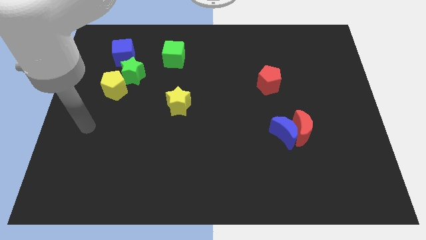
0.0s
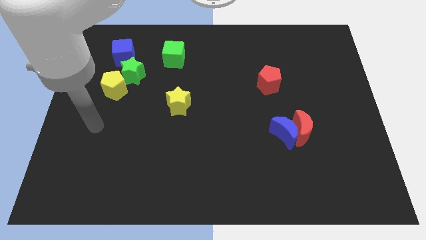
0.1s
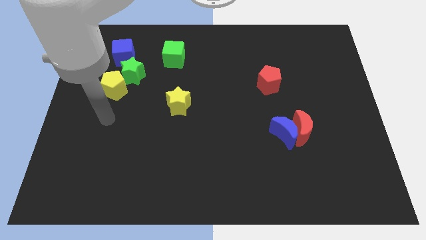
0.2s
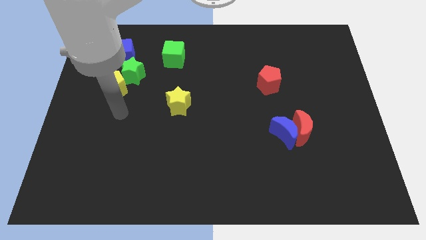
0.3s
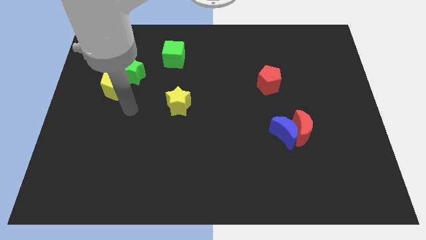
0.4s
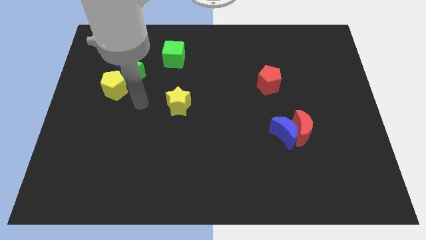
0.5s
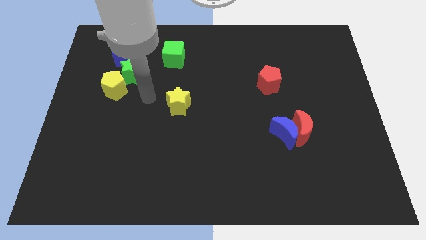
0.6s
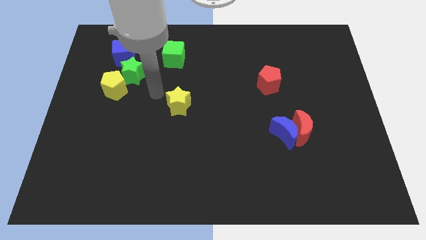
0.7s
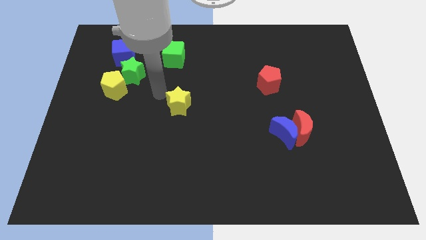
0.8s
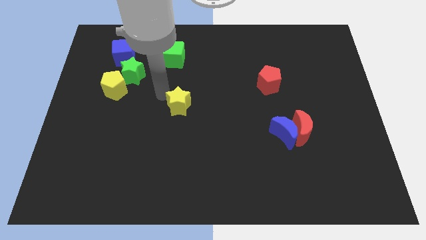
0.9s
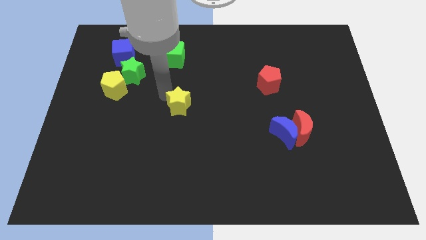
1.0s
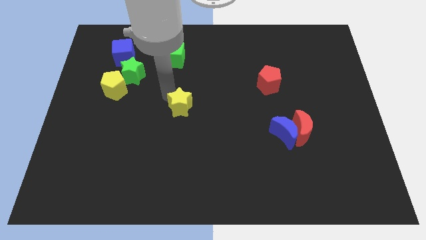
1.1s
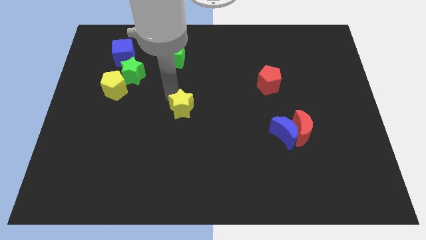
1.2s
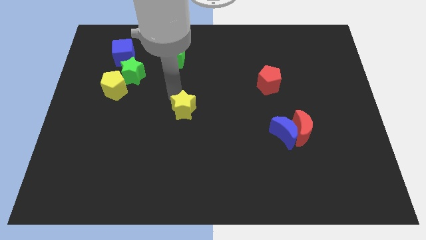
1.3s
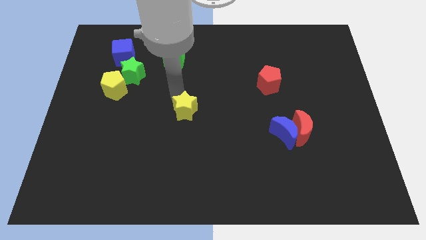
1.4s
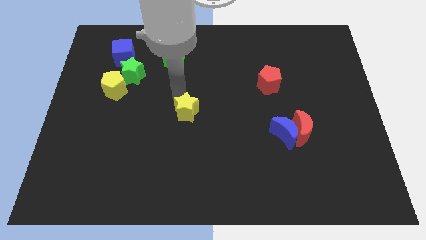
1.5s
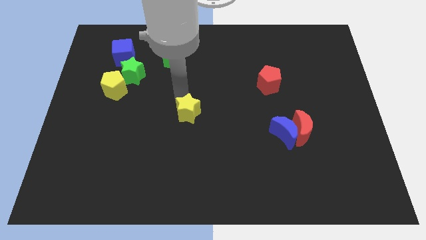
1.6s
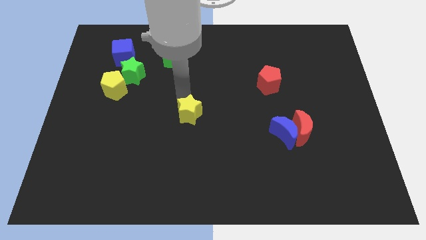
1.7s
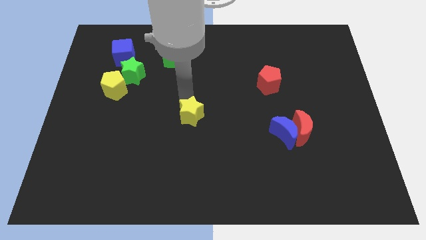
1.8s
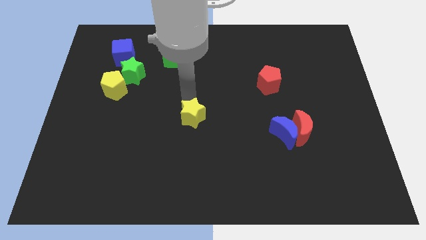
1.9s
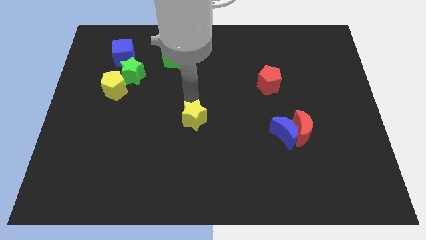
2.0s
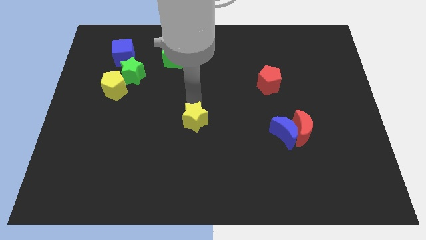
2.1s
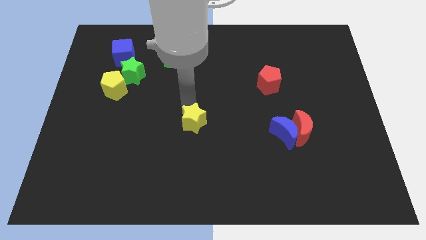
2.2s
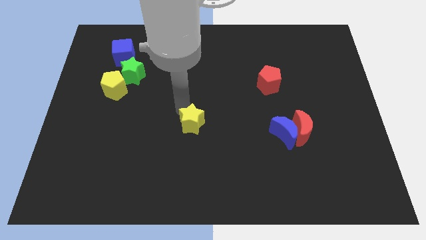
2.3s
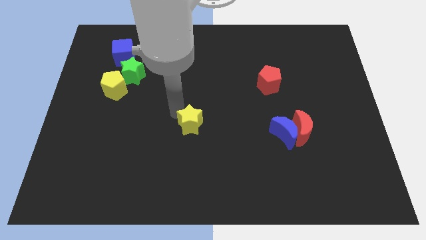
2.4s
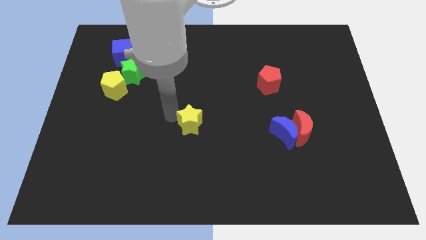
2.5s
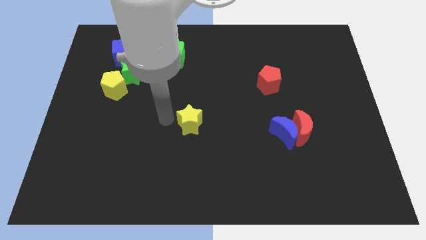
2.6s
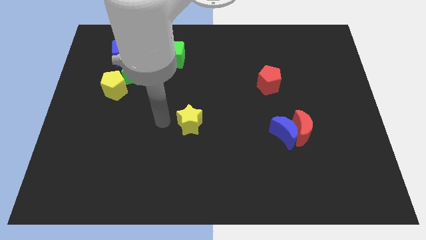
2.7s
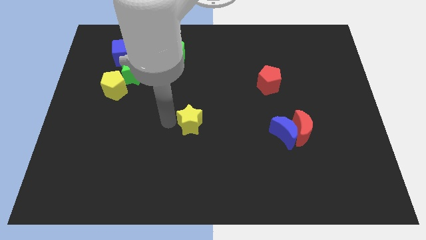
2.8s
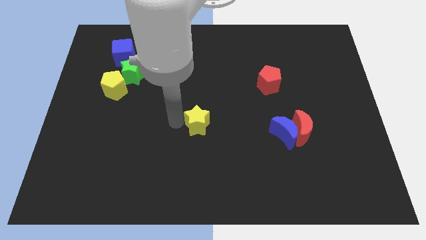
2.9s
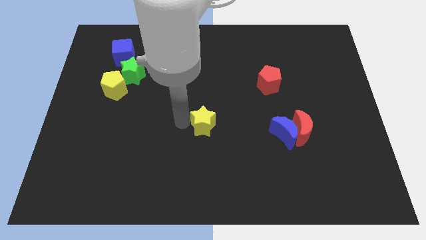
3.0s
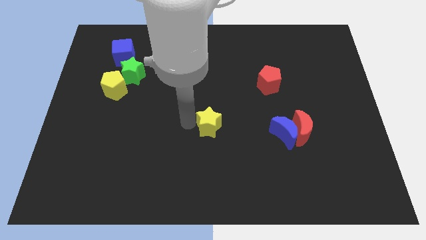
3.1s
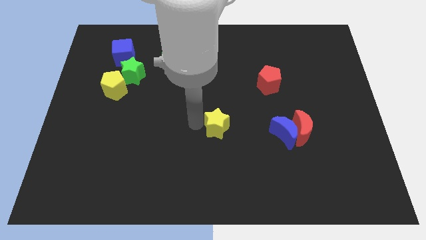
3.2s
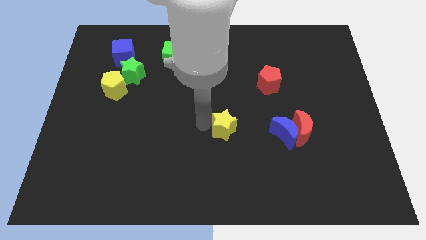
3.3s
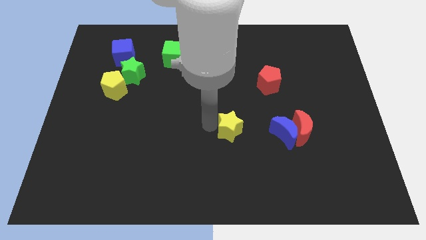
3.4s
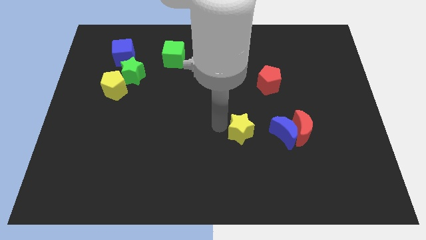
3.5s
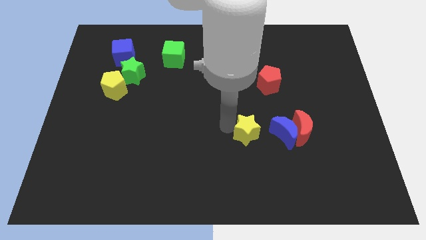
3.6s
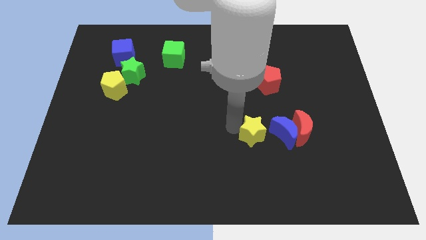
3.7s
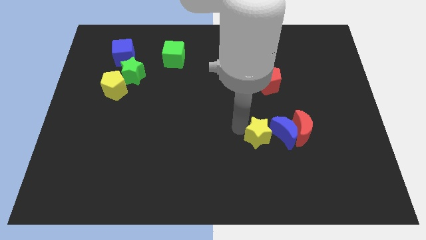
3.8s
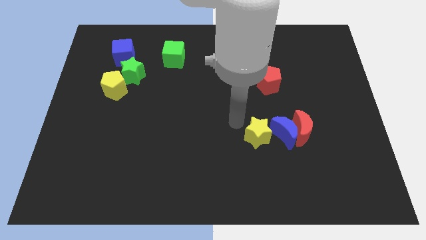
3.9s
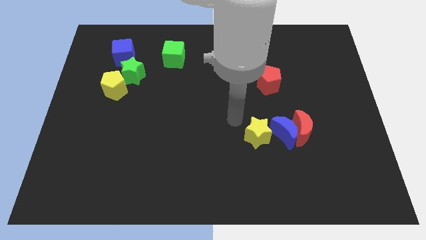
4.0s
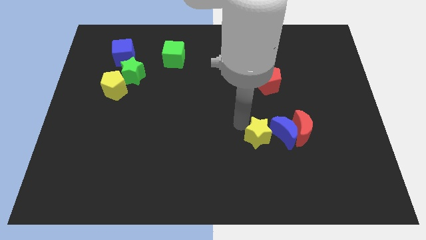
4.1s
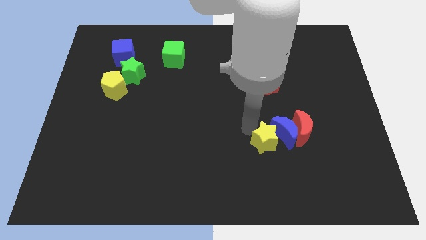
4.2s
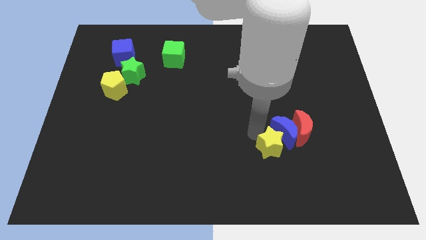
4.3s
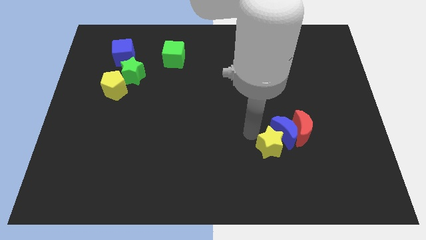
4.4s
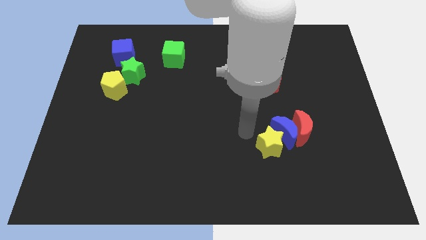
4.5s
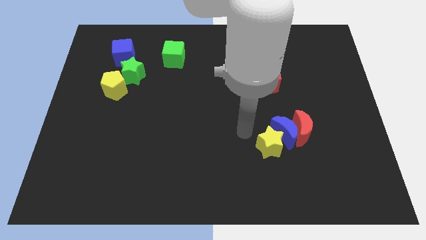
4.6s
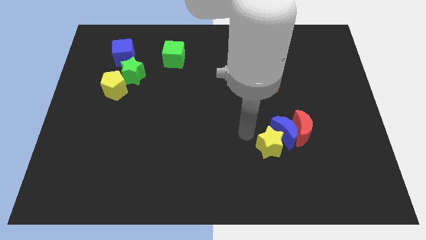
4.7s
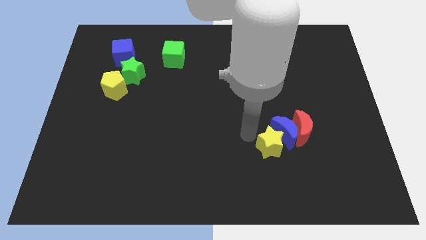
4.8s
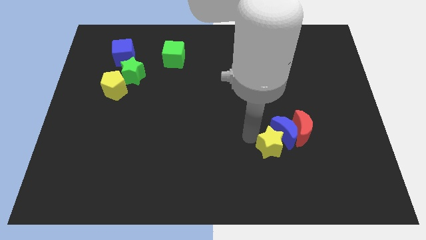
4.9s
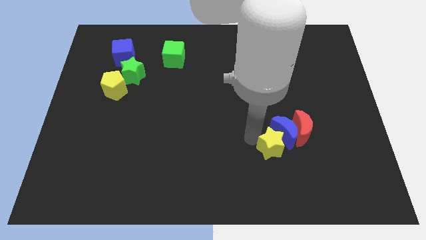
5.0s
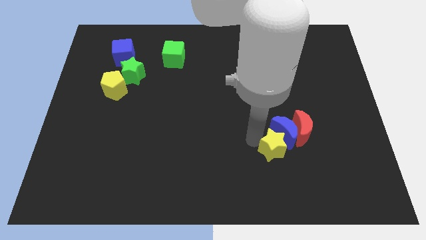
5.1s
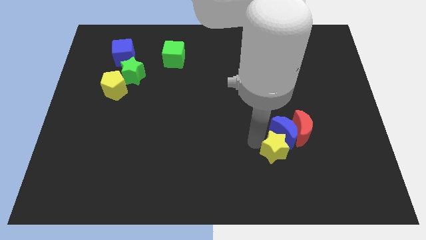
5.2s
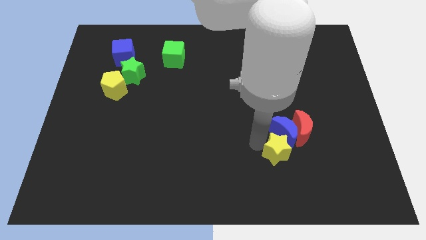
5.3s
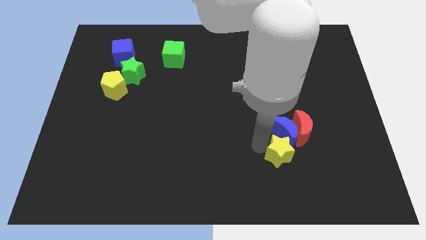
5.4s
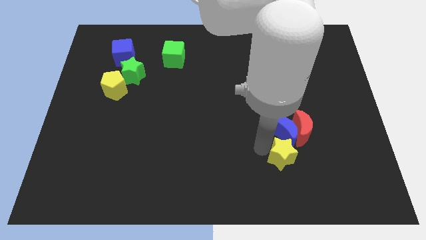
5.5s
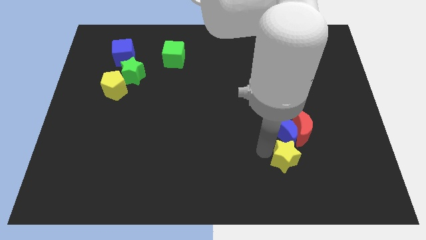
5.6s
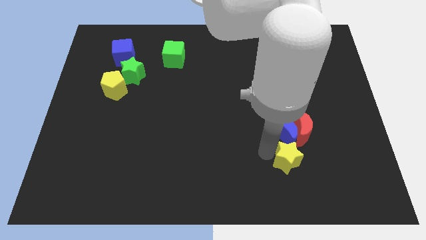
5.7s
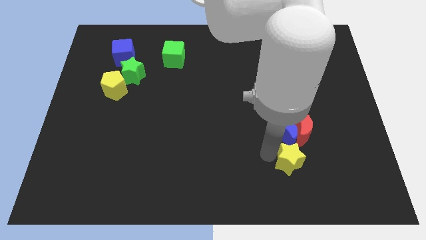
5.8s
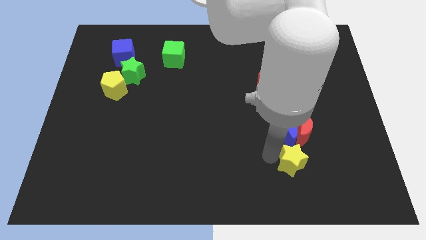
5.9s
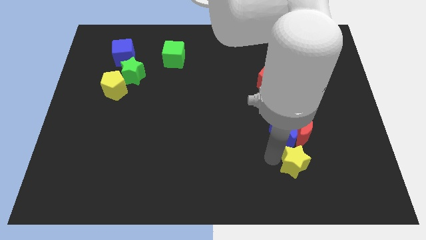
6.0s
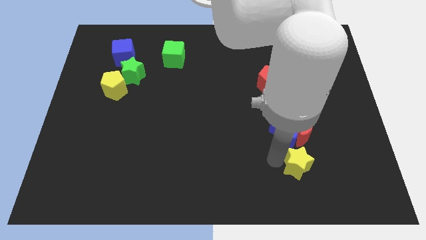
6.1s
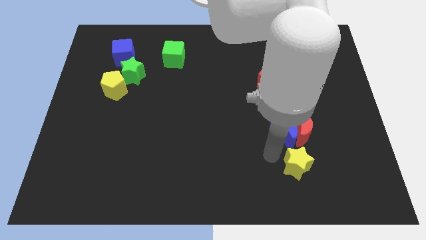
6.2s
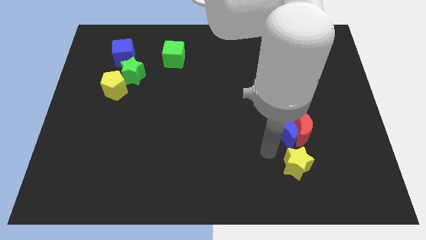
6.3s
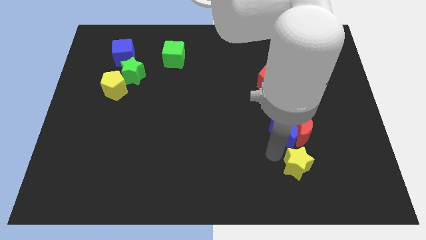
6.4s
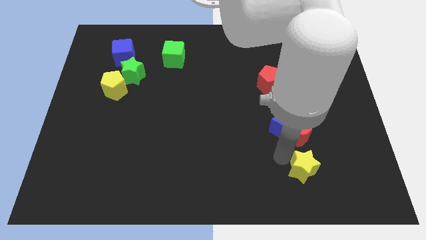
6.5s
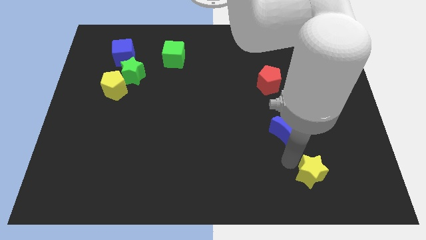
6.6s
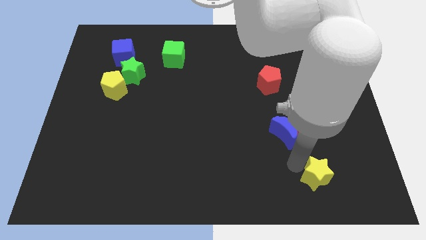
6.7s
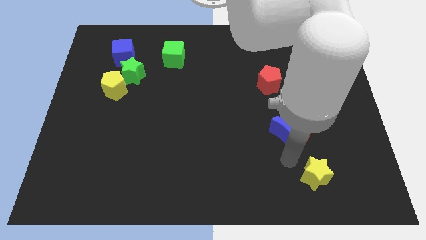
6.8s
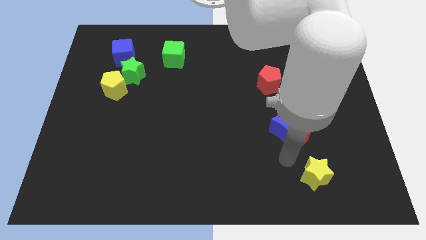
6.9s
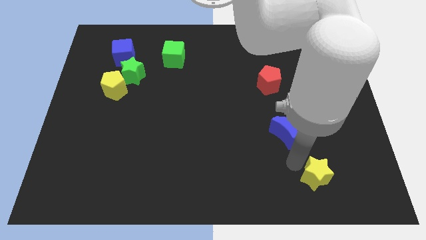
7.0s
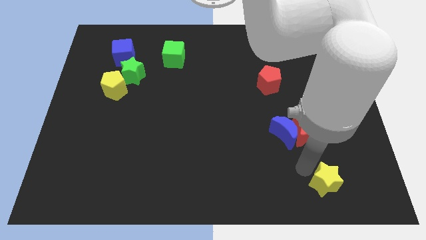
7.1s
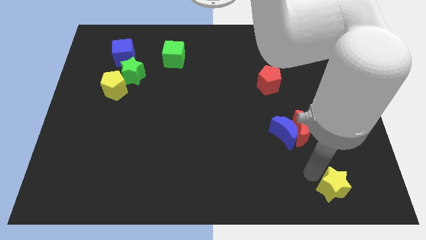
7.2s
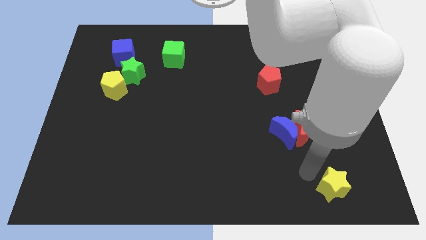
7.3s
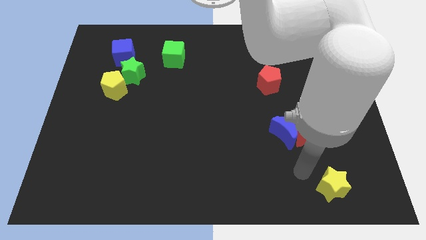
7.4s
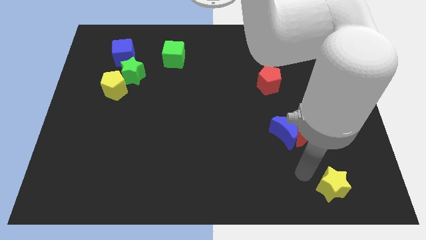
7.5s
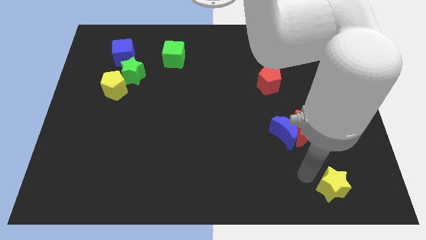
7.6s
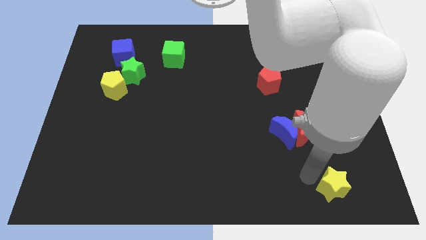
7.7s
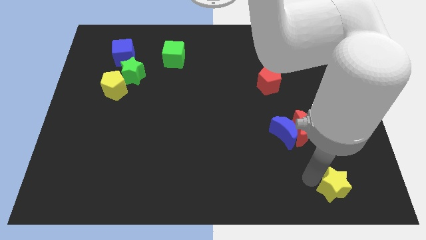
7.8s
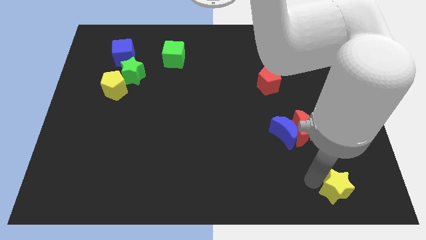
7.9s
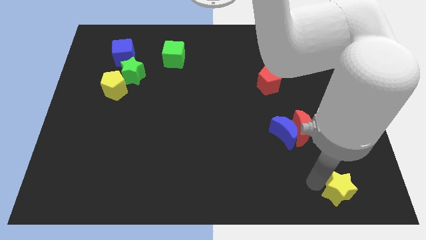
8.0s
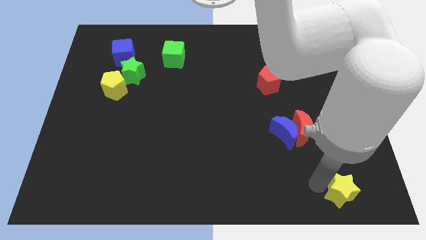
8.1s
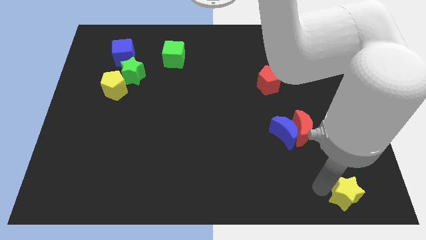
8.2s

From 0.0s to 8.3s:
push the yellow star to the bottom right
